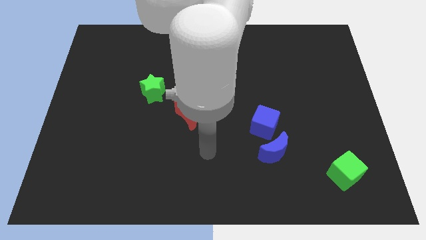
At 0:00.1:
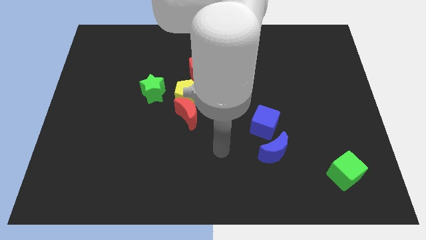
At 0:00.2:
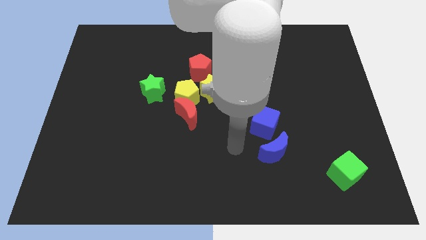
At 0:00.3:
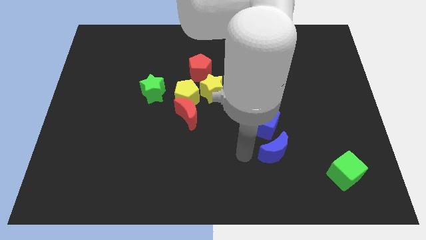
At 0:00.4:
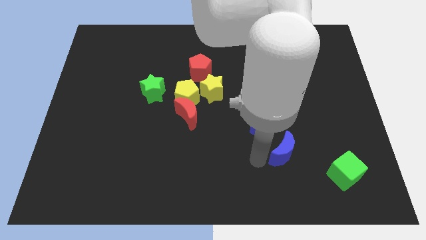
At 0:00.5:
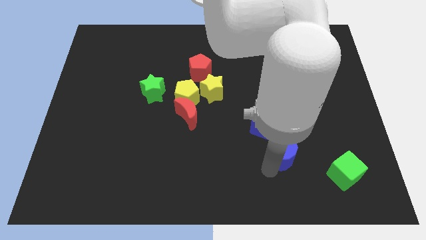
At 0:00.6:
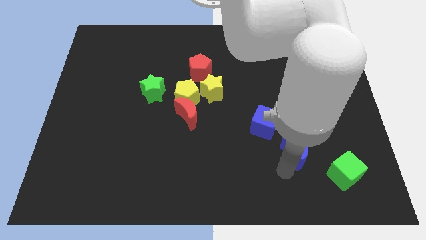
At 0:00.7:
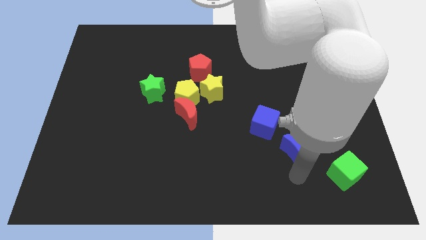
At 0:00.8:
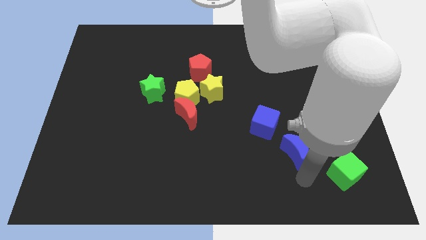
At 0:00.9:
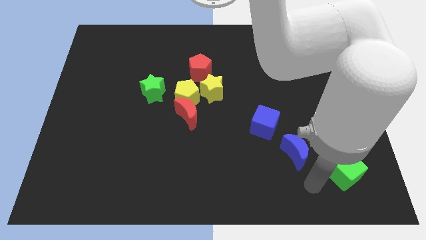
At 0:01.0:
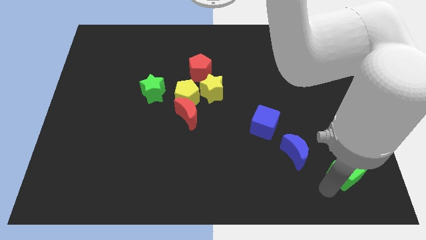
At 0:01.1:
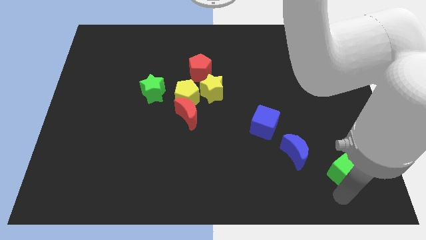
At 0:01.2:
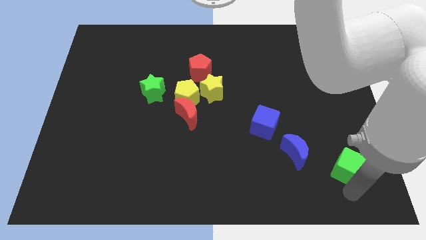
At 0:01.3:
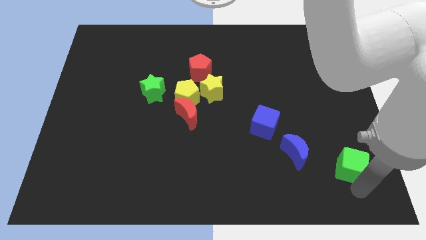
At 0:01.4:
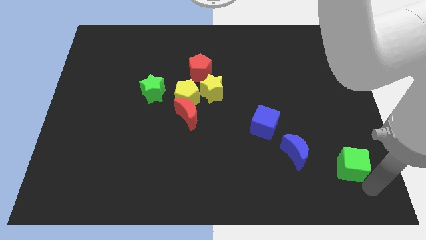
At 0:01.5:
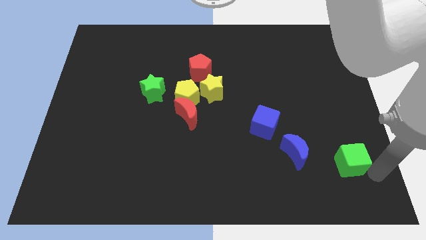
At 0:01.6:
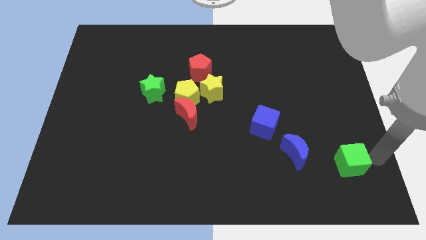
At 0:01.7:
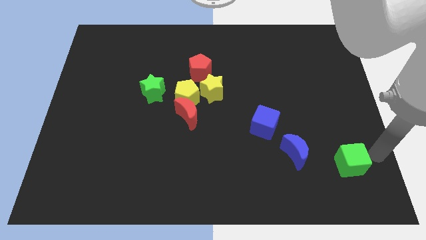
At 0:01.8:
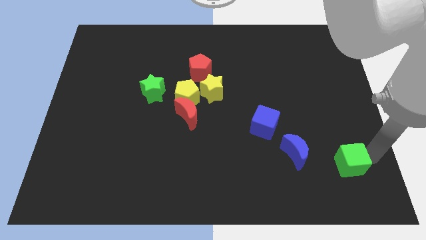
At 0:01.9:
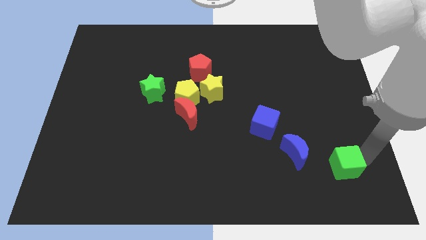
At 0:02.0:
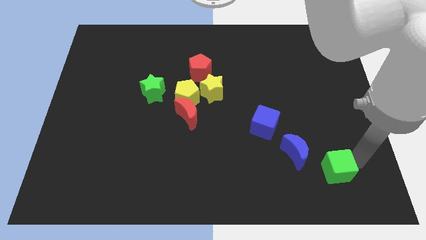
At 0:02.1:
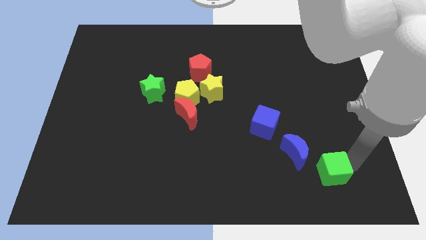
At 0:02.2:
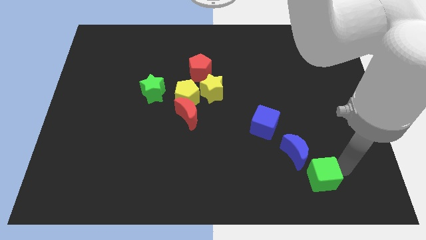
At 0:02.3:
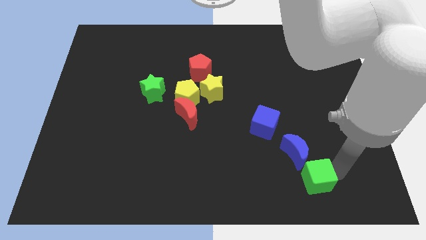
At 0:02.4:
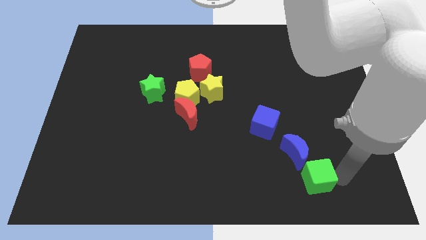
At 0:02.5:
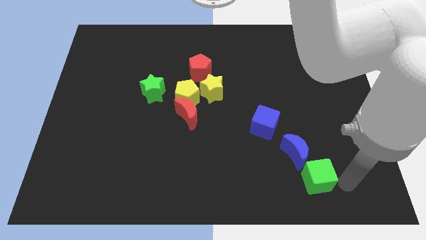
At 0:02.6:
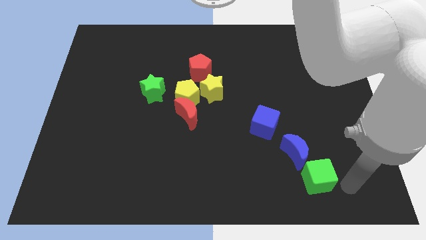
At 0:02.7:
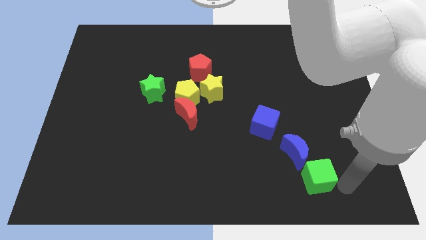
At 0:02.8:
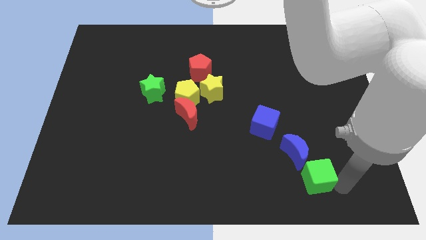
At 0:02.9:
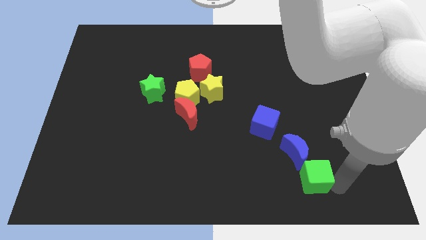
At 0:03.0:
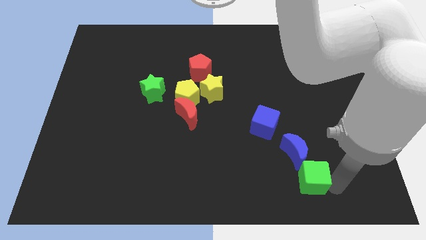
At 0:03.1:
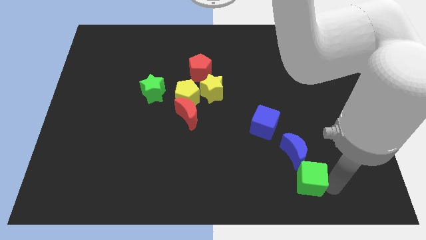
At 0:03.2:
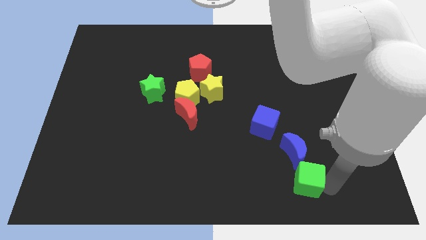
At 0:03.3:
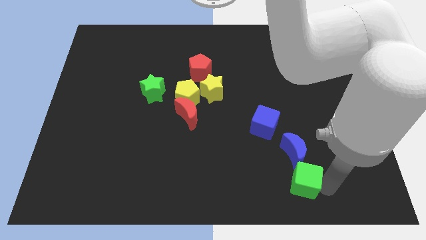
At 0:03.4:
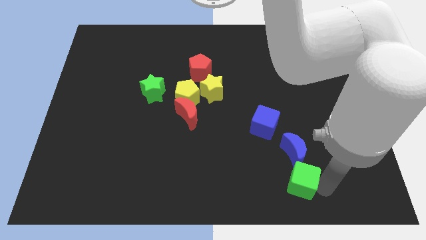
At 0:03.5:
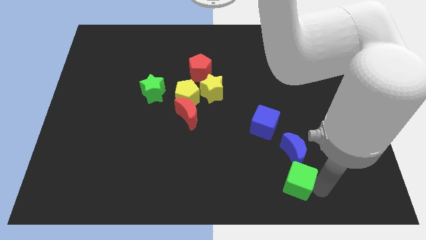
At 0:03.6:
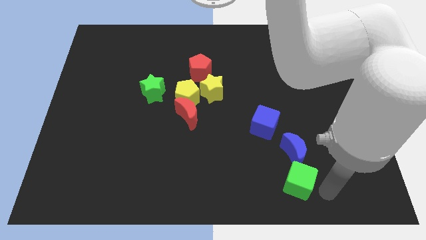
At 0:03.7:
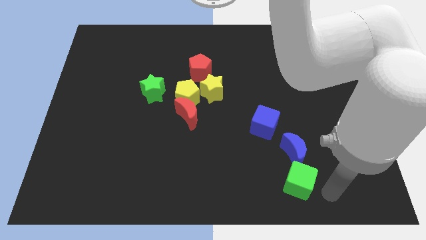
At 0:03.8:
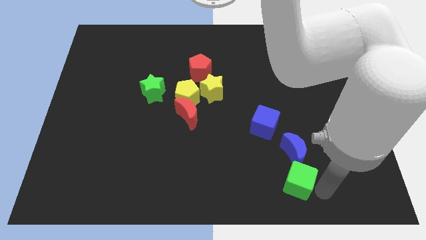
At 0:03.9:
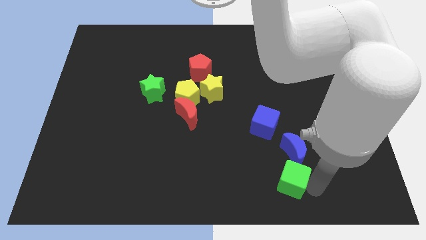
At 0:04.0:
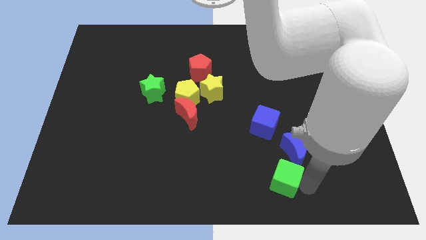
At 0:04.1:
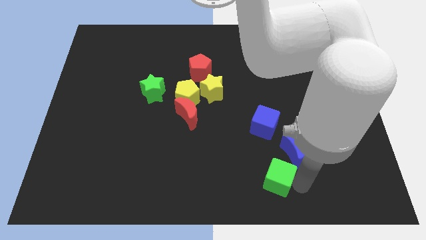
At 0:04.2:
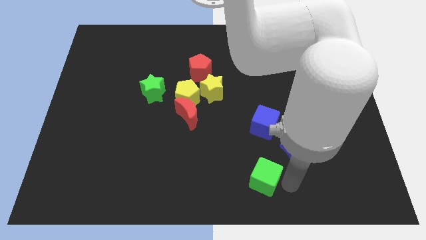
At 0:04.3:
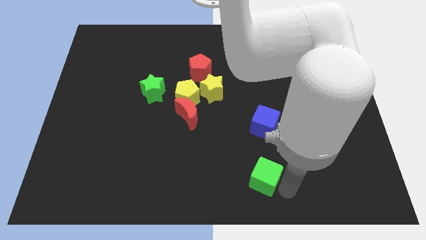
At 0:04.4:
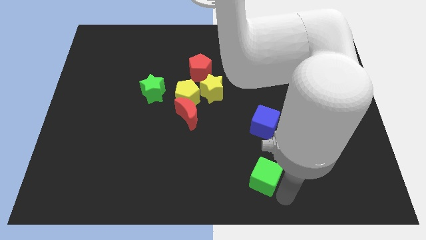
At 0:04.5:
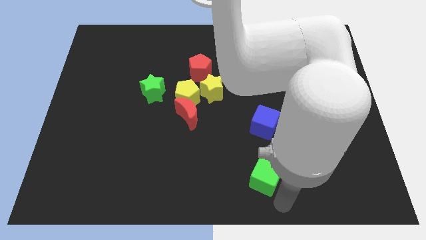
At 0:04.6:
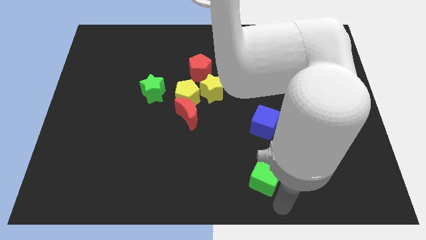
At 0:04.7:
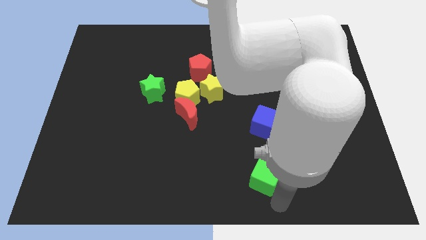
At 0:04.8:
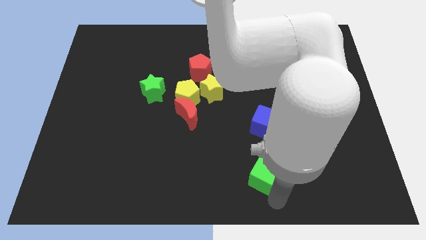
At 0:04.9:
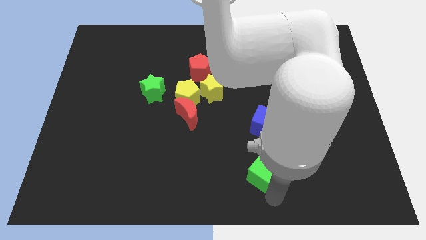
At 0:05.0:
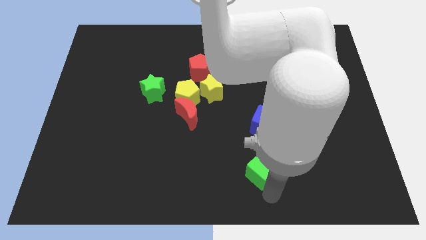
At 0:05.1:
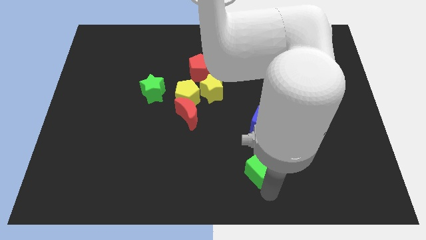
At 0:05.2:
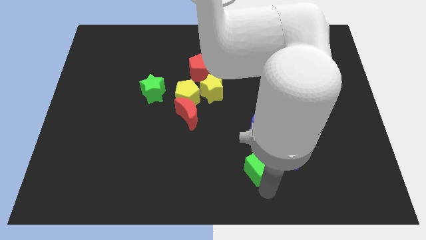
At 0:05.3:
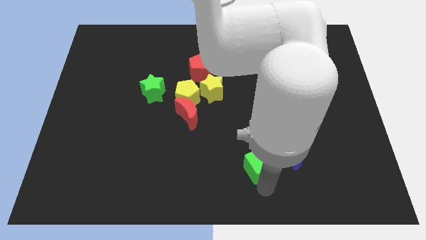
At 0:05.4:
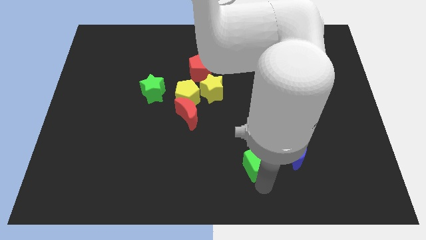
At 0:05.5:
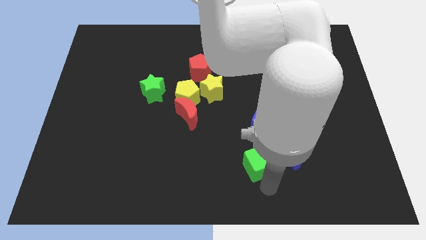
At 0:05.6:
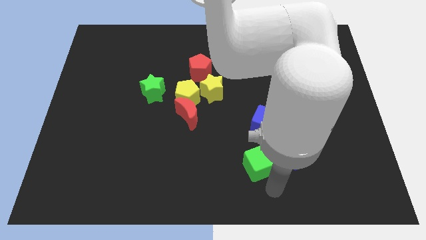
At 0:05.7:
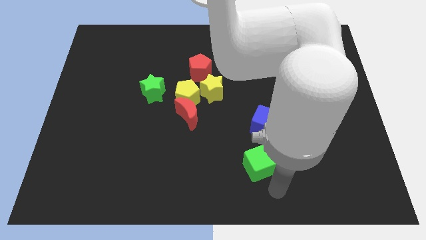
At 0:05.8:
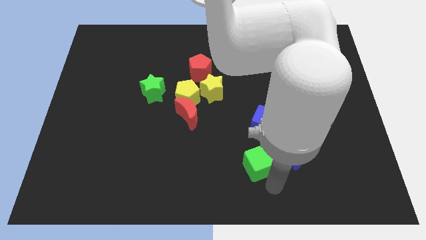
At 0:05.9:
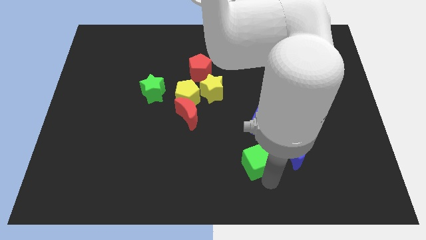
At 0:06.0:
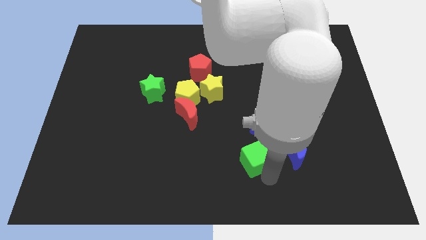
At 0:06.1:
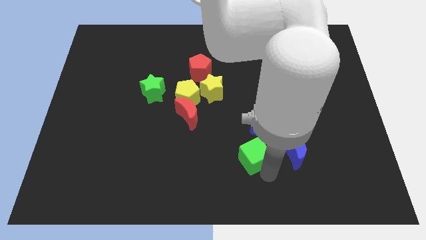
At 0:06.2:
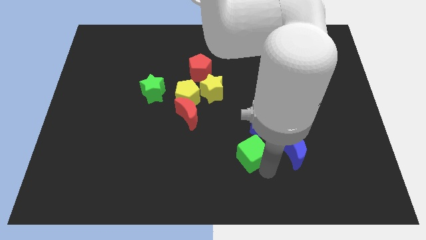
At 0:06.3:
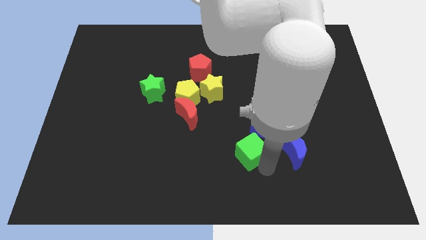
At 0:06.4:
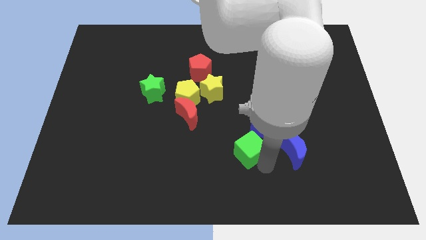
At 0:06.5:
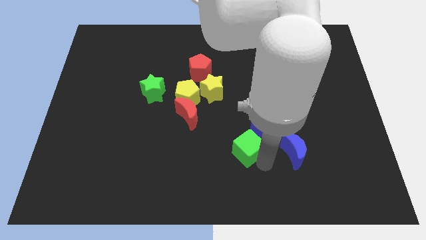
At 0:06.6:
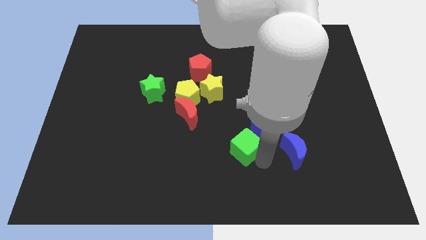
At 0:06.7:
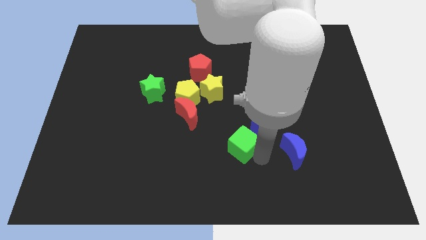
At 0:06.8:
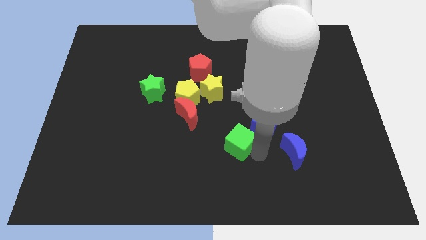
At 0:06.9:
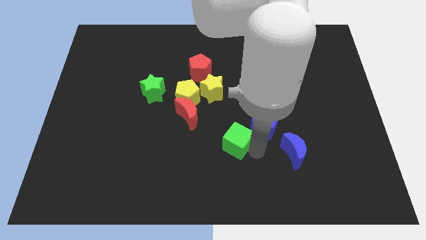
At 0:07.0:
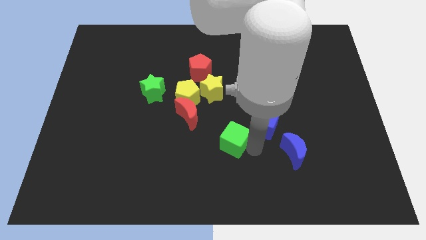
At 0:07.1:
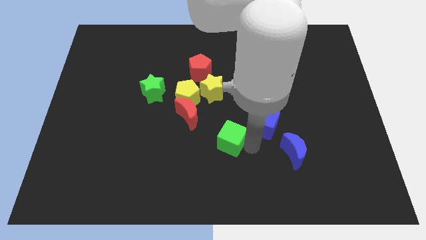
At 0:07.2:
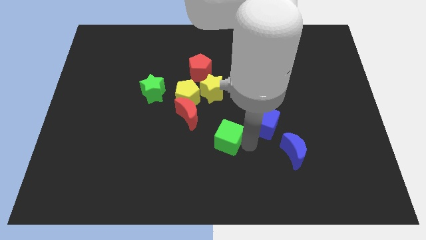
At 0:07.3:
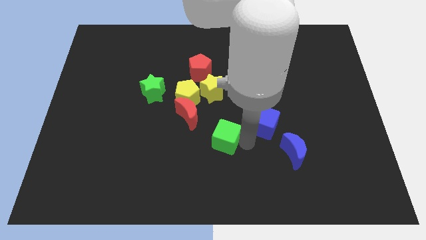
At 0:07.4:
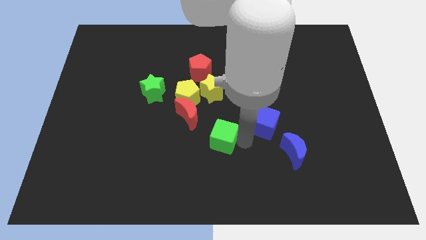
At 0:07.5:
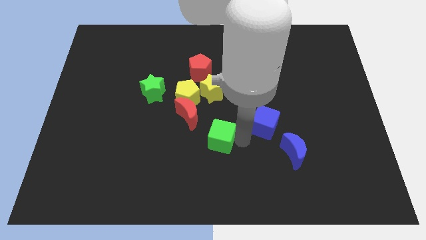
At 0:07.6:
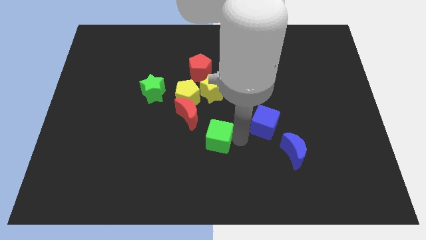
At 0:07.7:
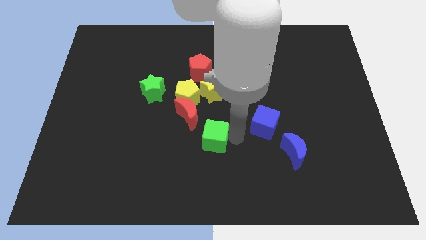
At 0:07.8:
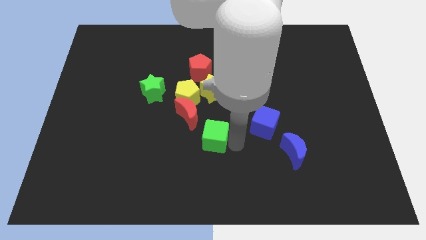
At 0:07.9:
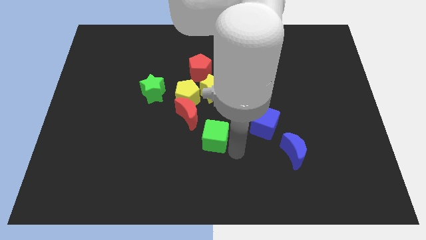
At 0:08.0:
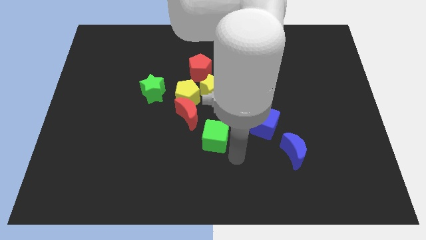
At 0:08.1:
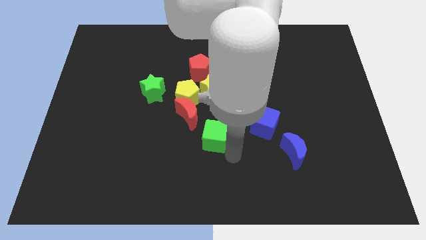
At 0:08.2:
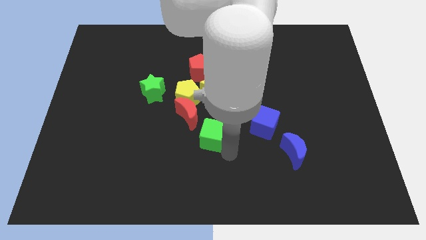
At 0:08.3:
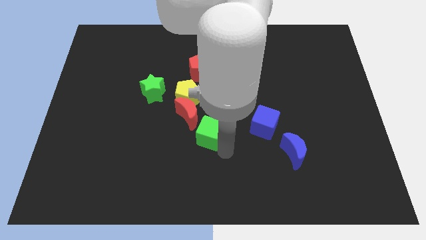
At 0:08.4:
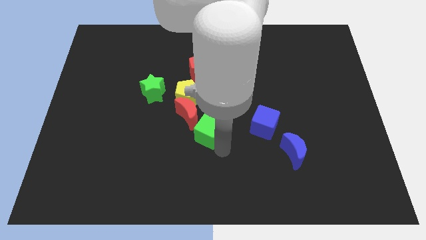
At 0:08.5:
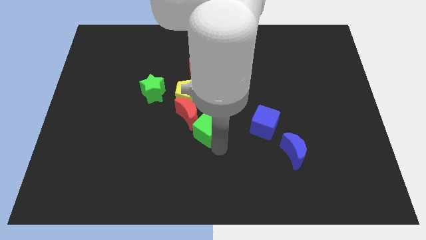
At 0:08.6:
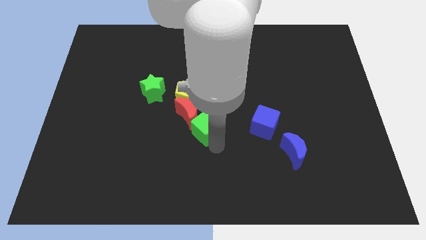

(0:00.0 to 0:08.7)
slide the green cube to the red moon
